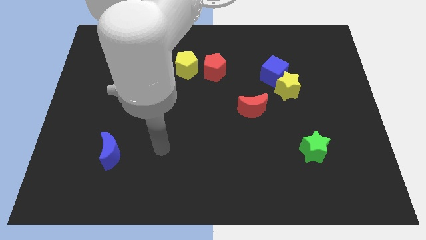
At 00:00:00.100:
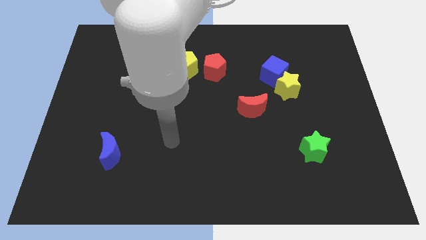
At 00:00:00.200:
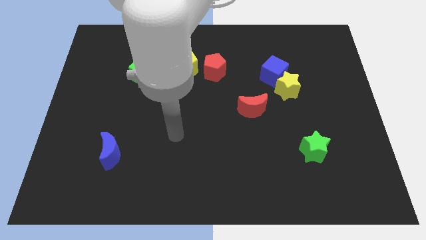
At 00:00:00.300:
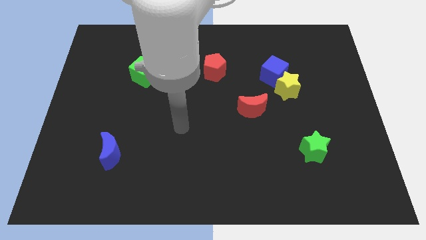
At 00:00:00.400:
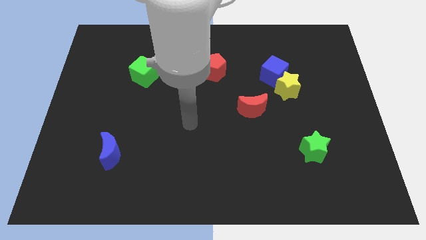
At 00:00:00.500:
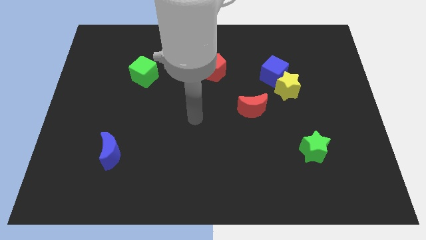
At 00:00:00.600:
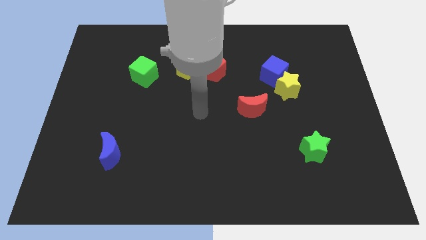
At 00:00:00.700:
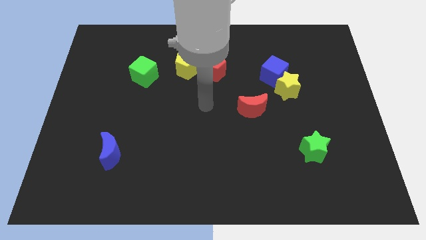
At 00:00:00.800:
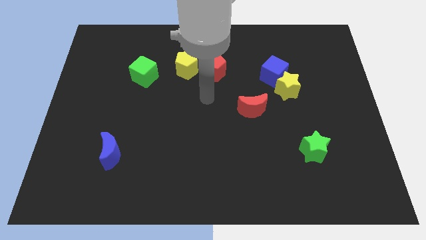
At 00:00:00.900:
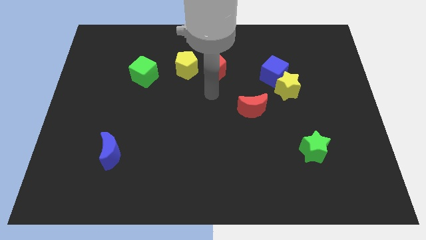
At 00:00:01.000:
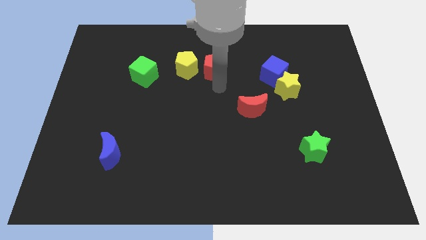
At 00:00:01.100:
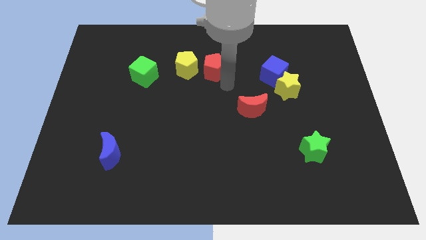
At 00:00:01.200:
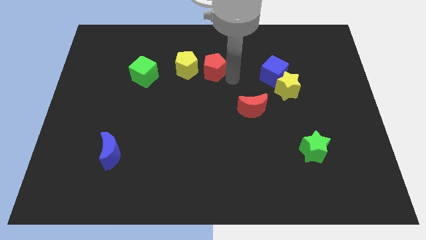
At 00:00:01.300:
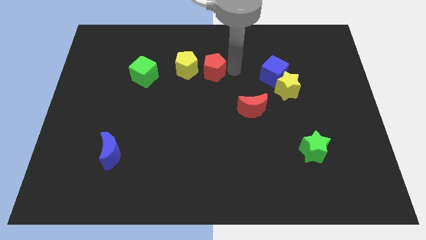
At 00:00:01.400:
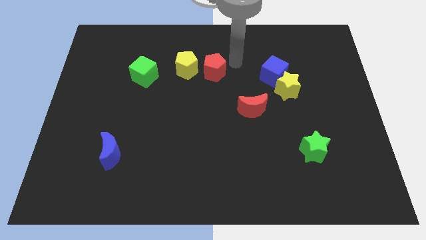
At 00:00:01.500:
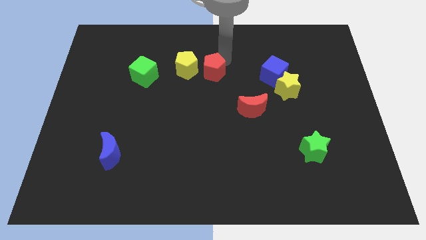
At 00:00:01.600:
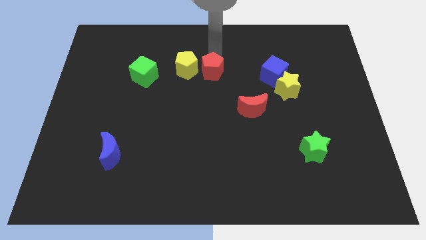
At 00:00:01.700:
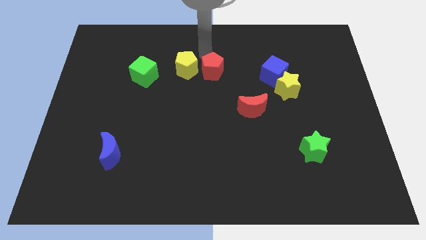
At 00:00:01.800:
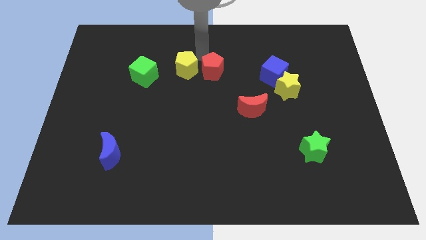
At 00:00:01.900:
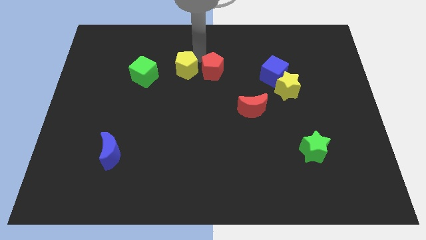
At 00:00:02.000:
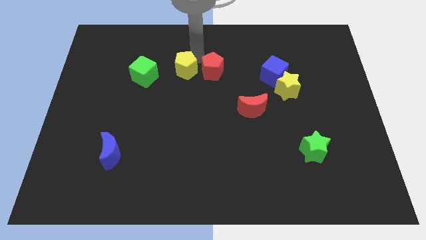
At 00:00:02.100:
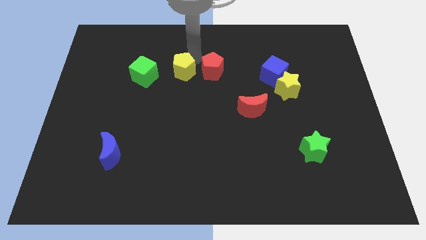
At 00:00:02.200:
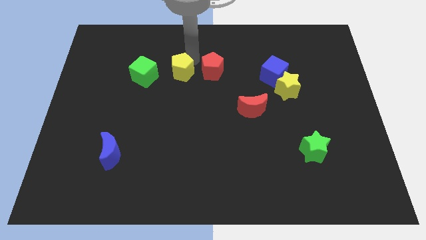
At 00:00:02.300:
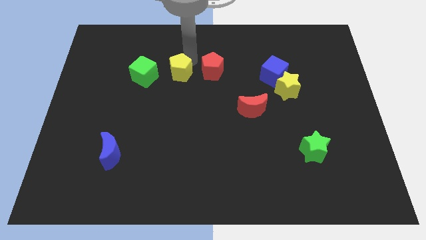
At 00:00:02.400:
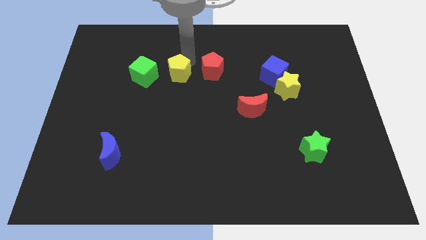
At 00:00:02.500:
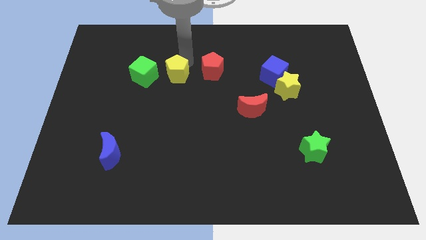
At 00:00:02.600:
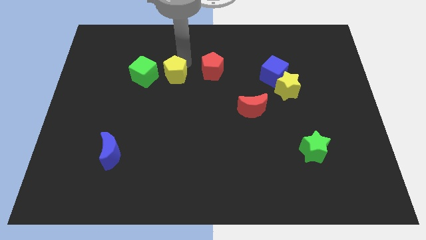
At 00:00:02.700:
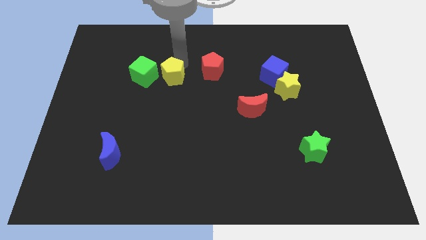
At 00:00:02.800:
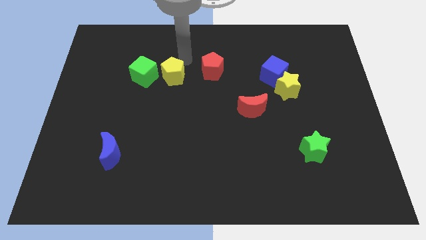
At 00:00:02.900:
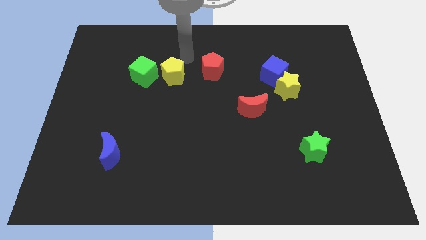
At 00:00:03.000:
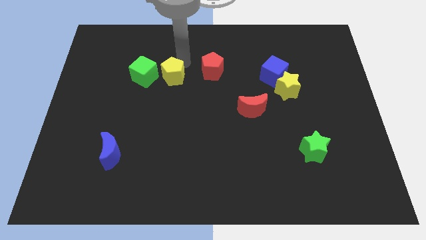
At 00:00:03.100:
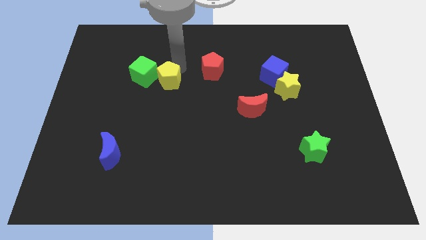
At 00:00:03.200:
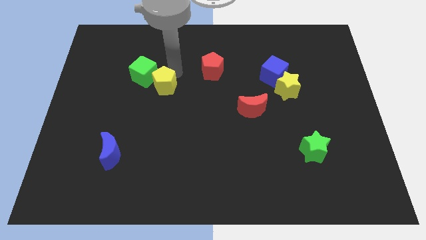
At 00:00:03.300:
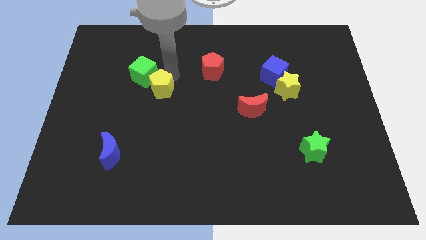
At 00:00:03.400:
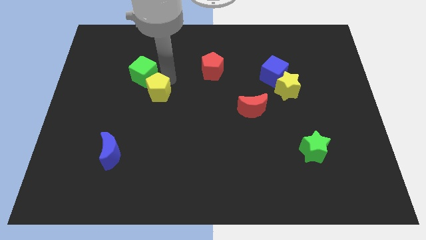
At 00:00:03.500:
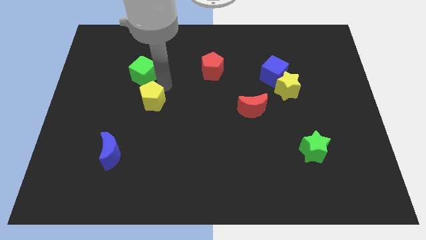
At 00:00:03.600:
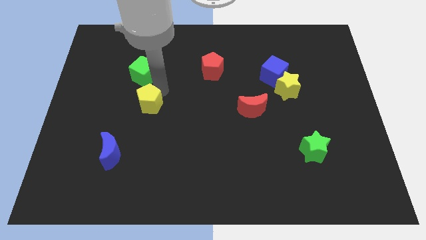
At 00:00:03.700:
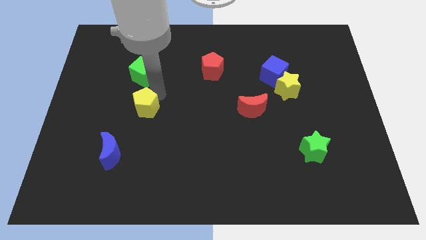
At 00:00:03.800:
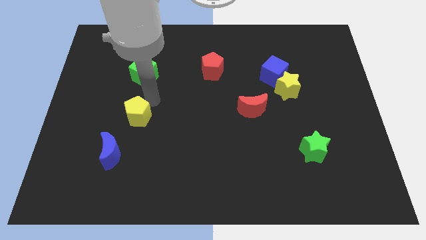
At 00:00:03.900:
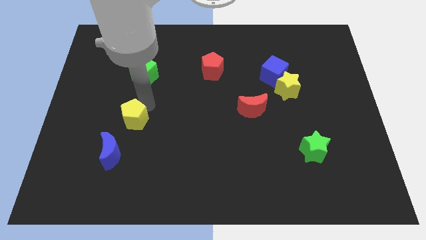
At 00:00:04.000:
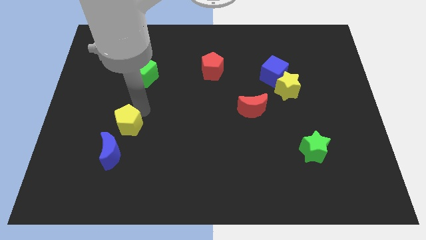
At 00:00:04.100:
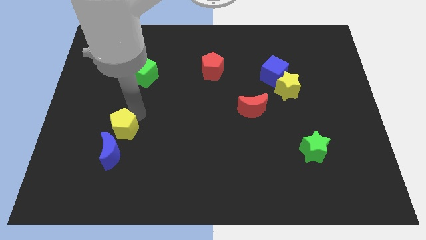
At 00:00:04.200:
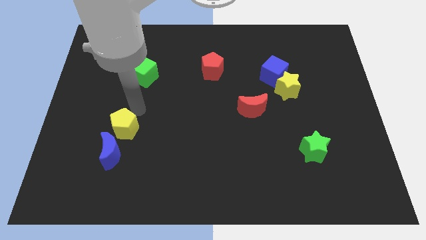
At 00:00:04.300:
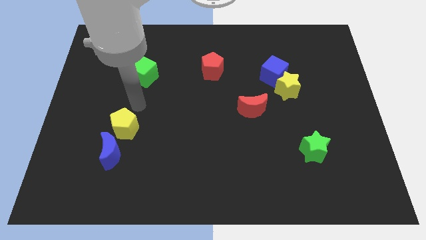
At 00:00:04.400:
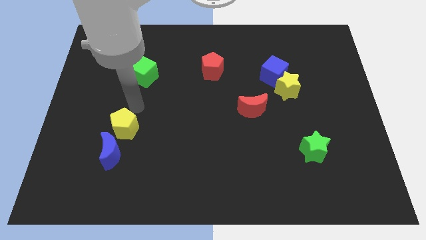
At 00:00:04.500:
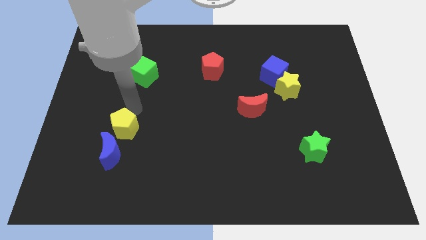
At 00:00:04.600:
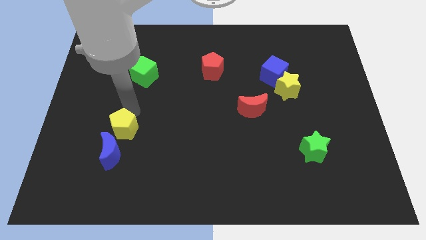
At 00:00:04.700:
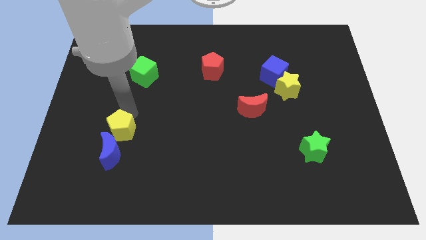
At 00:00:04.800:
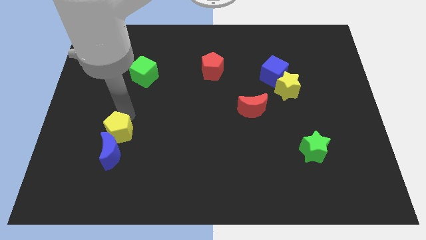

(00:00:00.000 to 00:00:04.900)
put the yellow pentagon to the blue moon

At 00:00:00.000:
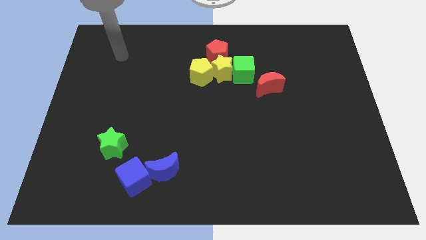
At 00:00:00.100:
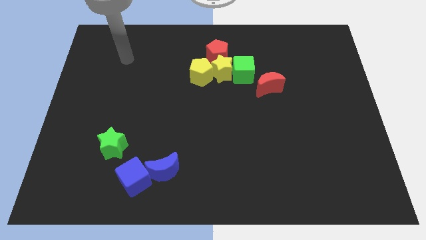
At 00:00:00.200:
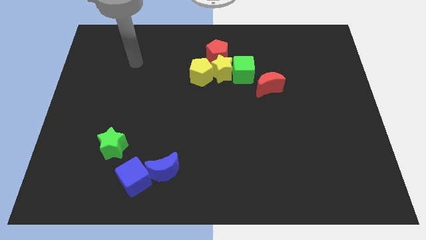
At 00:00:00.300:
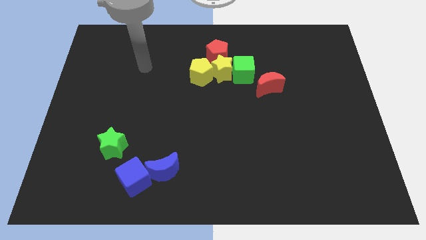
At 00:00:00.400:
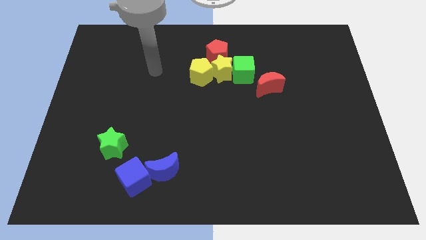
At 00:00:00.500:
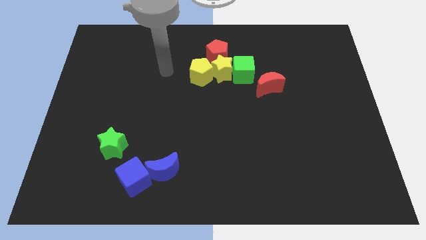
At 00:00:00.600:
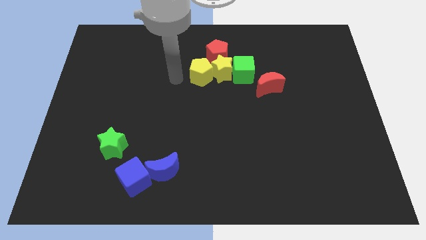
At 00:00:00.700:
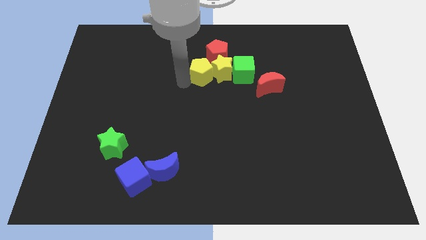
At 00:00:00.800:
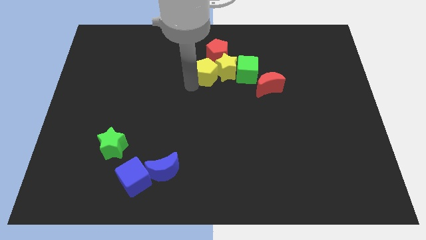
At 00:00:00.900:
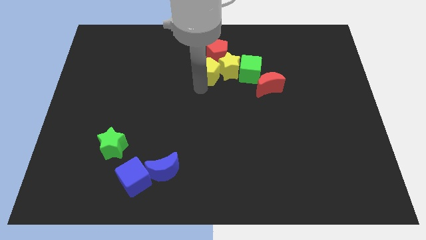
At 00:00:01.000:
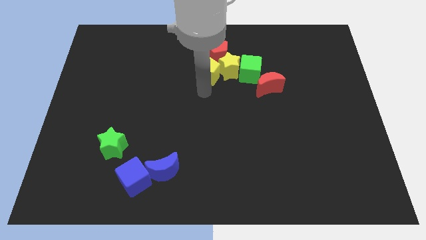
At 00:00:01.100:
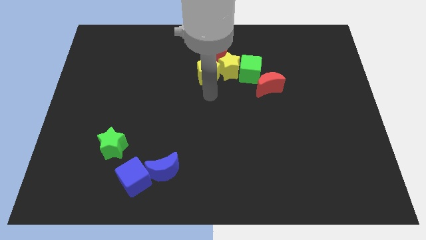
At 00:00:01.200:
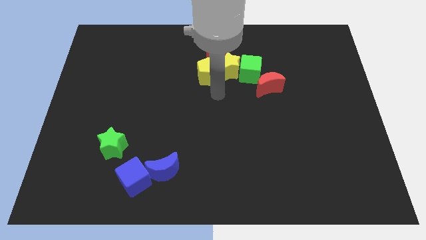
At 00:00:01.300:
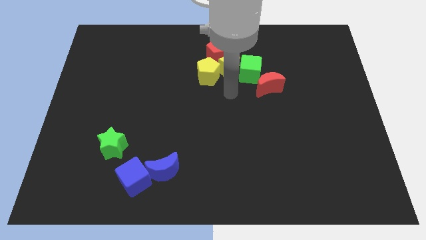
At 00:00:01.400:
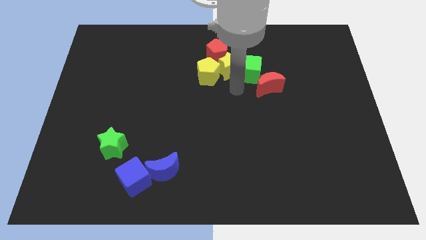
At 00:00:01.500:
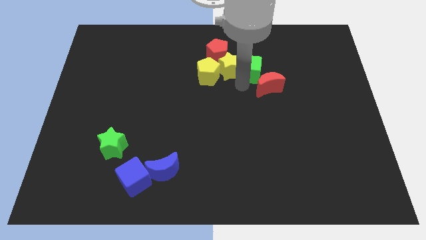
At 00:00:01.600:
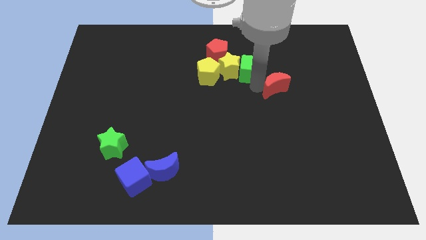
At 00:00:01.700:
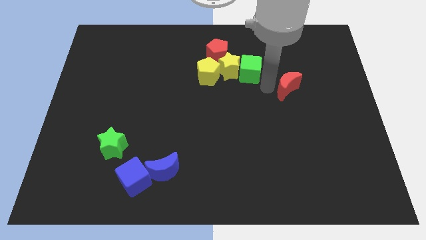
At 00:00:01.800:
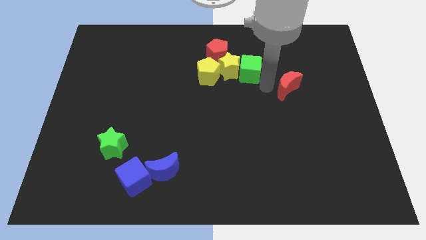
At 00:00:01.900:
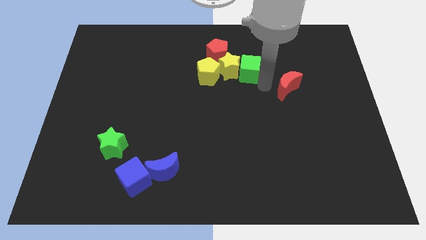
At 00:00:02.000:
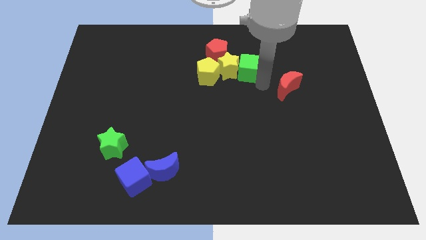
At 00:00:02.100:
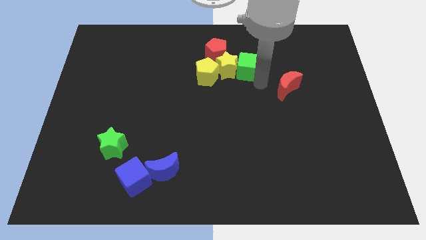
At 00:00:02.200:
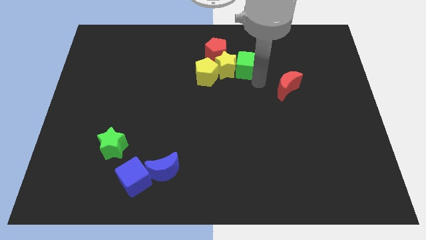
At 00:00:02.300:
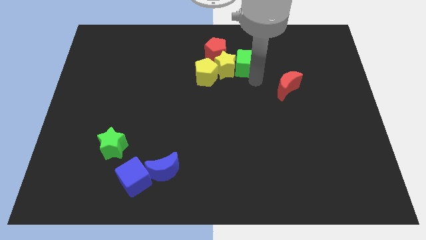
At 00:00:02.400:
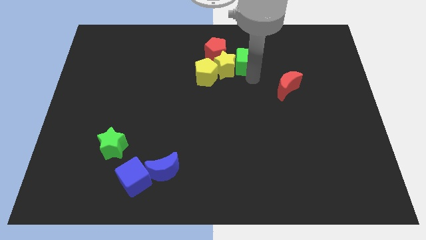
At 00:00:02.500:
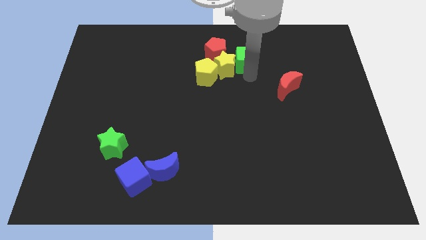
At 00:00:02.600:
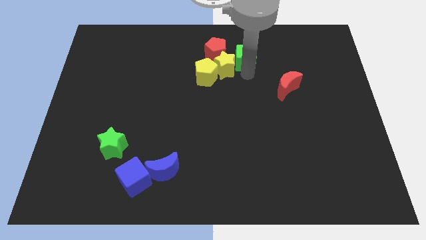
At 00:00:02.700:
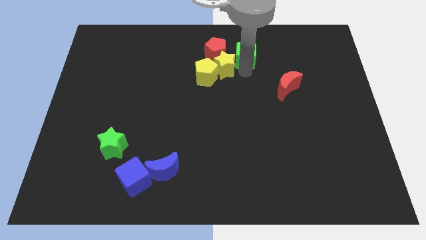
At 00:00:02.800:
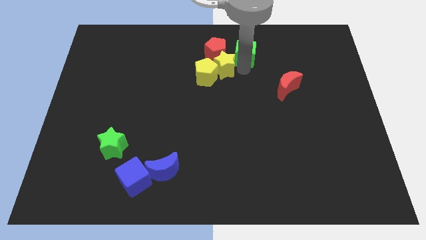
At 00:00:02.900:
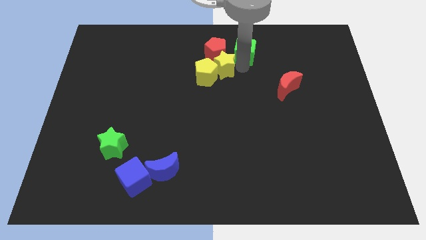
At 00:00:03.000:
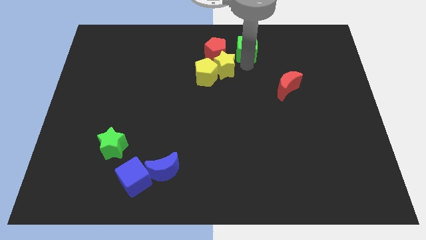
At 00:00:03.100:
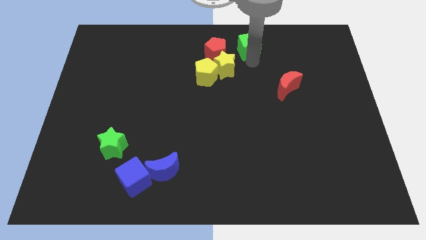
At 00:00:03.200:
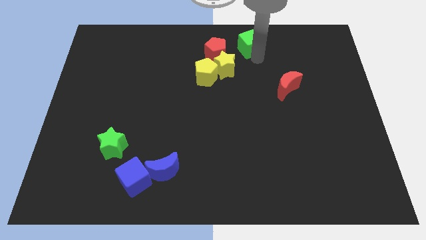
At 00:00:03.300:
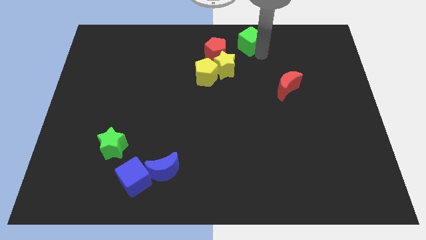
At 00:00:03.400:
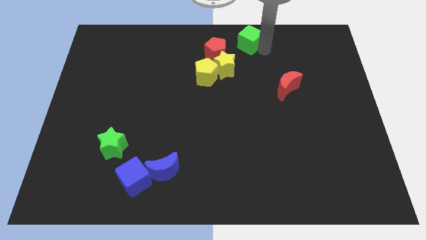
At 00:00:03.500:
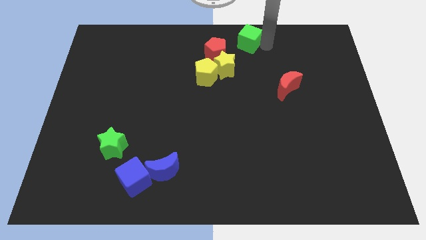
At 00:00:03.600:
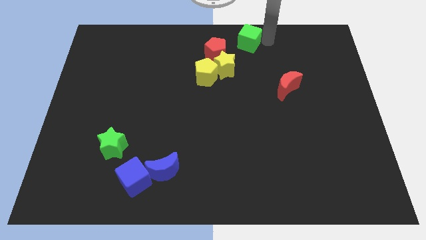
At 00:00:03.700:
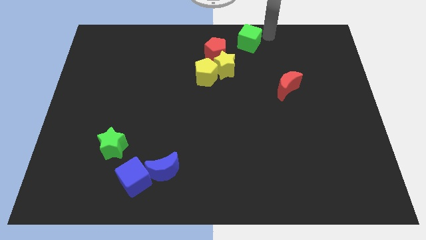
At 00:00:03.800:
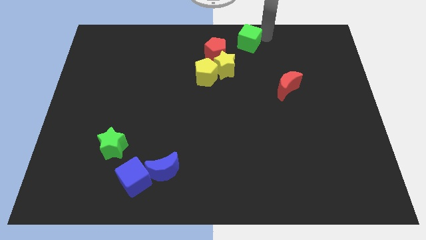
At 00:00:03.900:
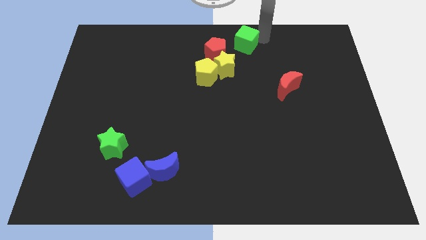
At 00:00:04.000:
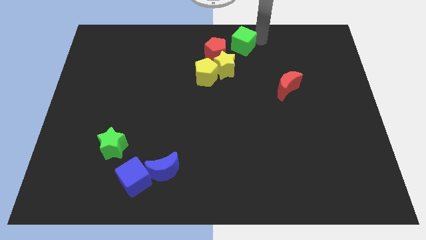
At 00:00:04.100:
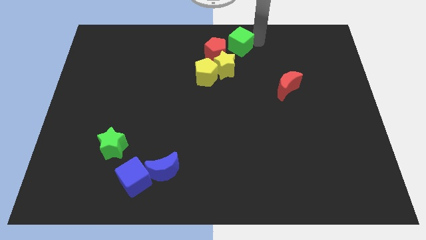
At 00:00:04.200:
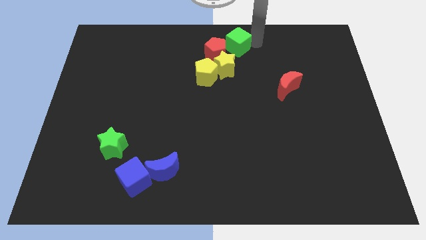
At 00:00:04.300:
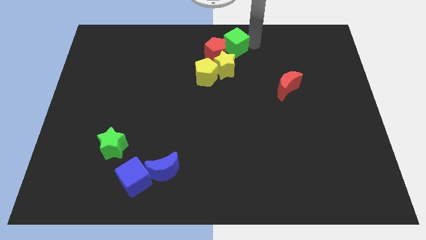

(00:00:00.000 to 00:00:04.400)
push the green cube close to the red pentagon
